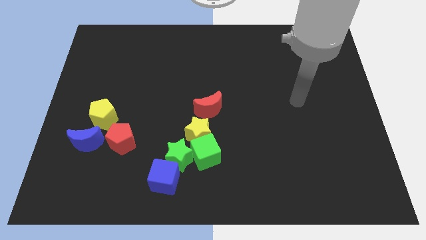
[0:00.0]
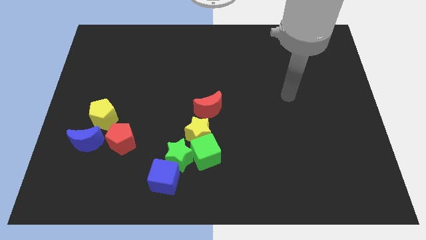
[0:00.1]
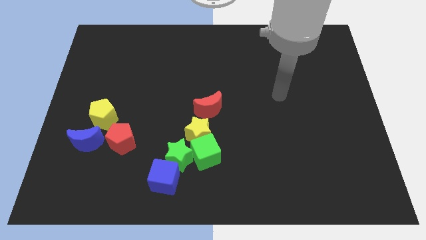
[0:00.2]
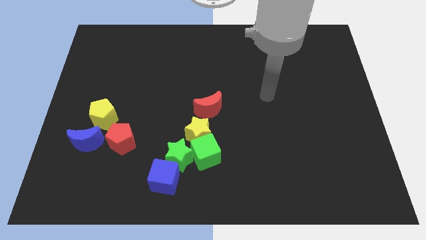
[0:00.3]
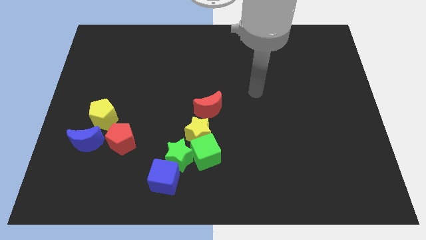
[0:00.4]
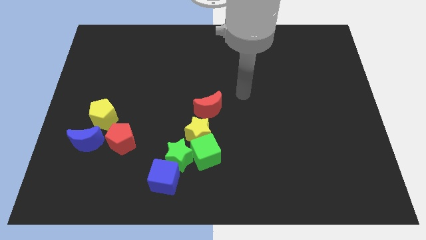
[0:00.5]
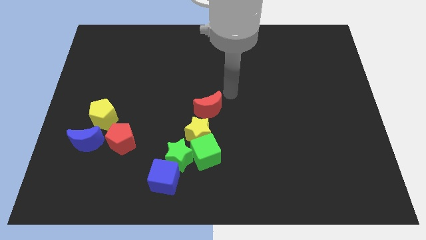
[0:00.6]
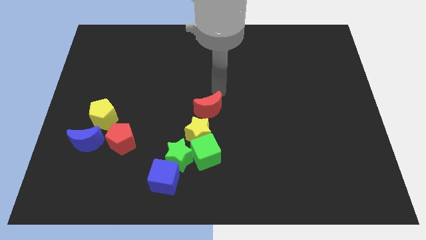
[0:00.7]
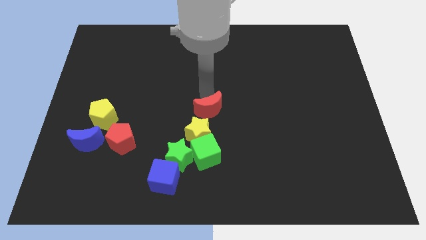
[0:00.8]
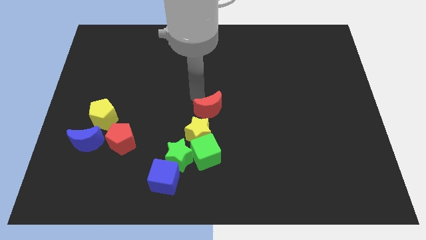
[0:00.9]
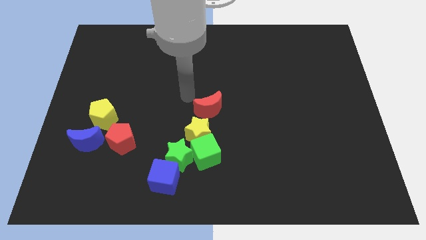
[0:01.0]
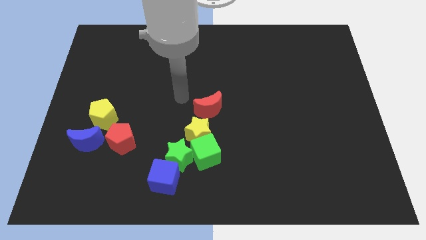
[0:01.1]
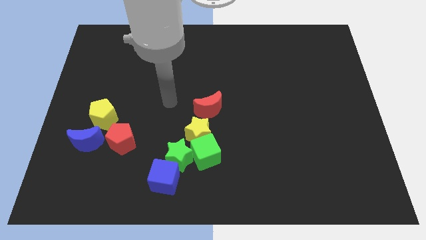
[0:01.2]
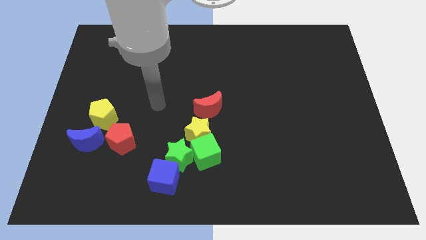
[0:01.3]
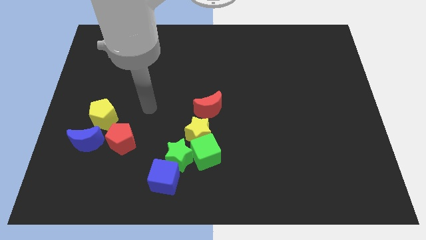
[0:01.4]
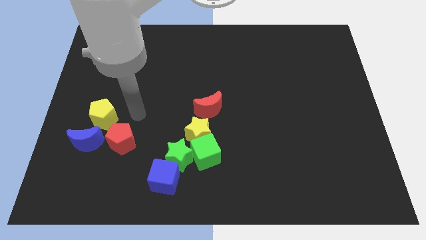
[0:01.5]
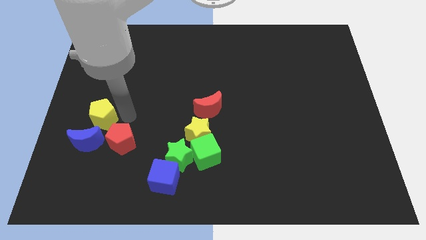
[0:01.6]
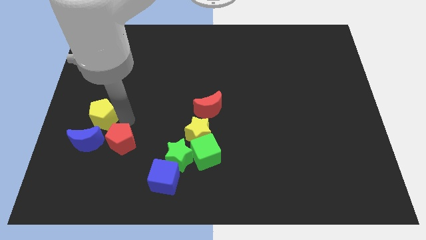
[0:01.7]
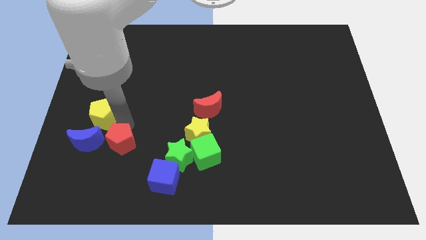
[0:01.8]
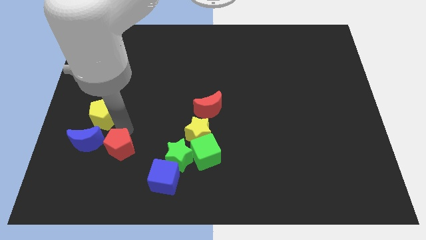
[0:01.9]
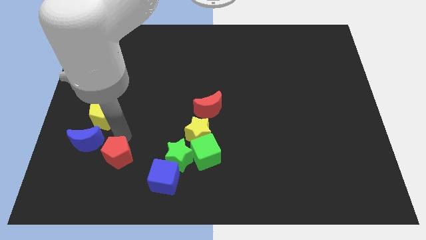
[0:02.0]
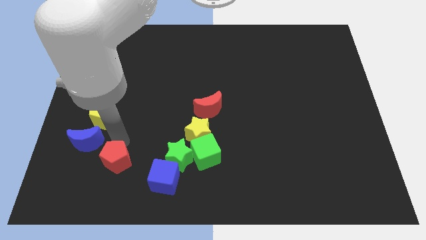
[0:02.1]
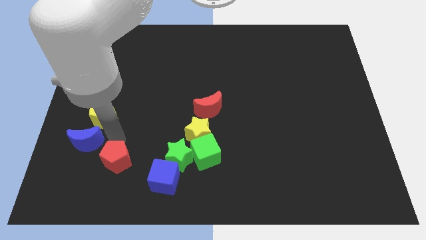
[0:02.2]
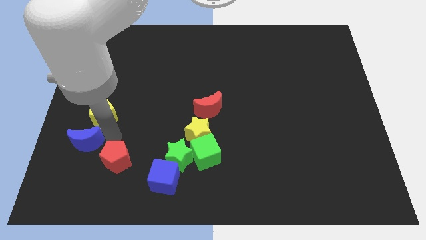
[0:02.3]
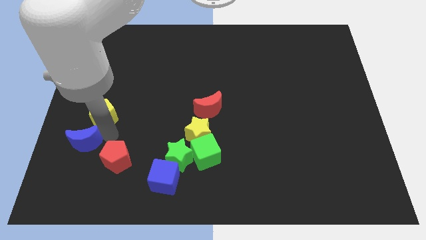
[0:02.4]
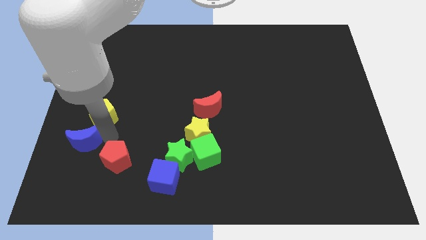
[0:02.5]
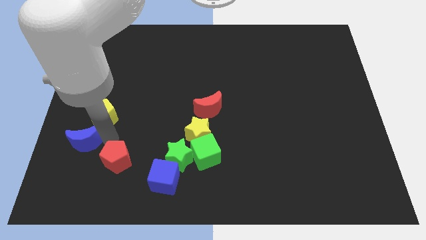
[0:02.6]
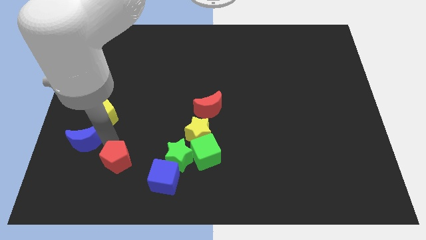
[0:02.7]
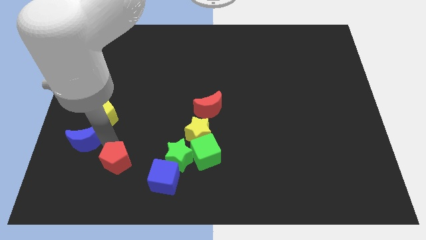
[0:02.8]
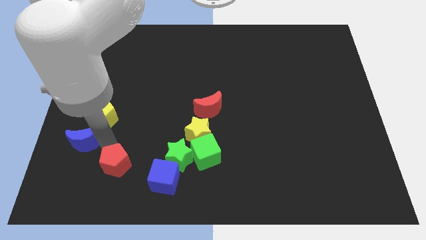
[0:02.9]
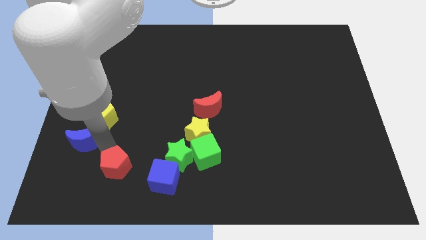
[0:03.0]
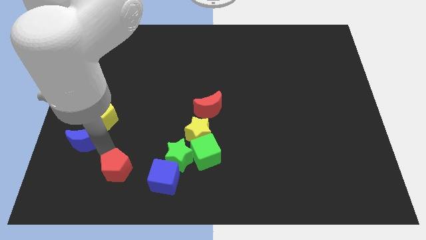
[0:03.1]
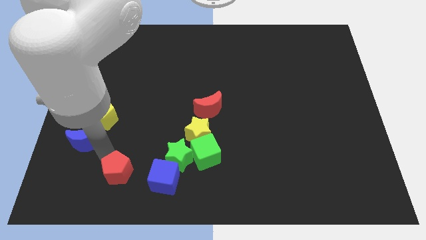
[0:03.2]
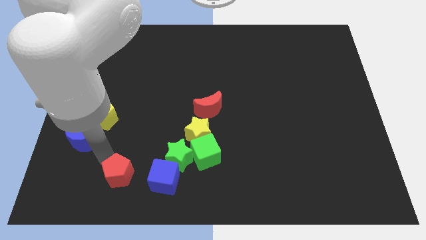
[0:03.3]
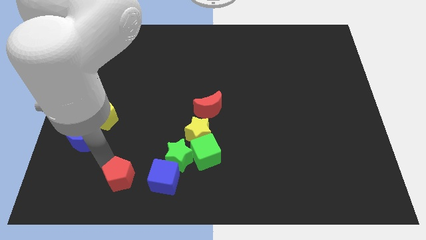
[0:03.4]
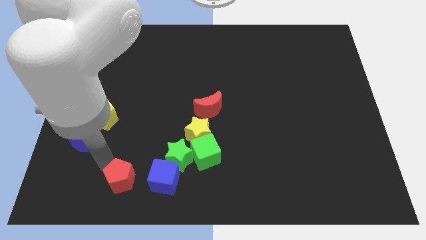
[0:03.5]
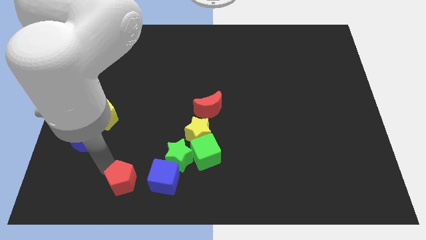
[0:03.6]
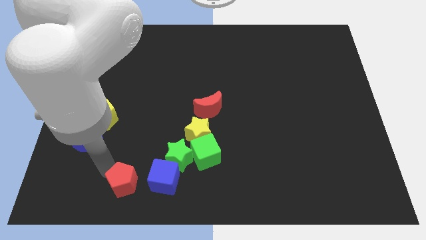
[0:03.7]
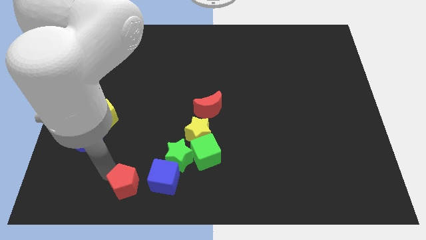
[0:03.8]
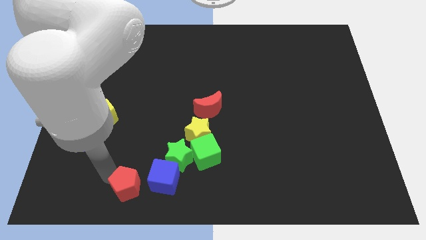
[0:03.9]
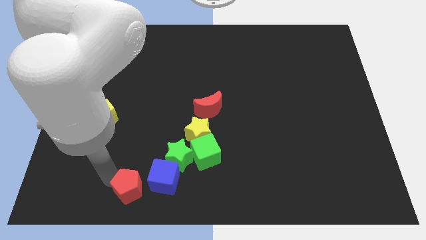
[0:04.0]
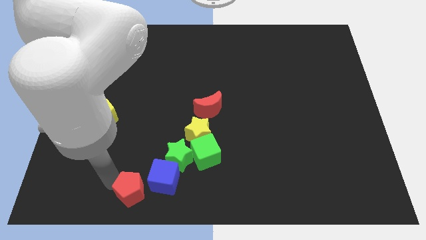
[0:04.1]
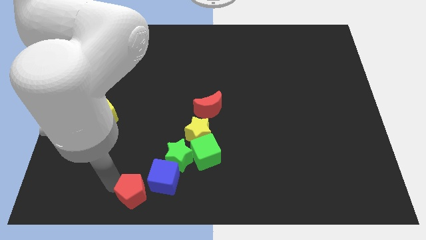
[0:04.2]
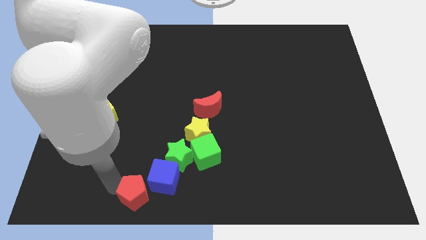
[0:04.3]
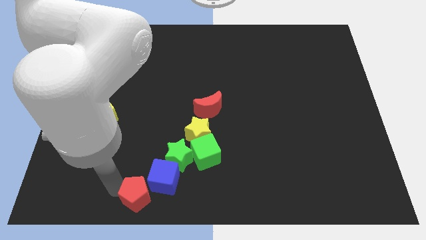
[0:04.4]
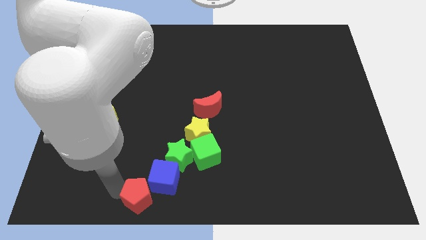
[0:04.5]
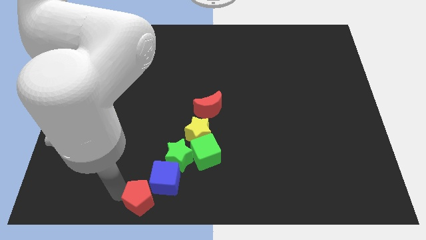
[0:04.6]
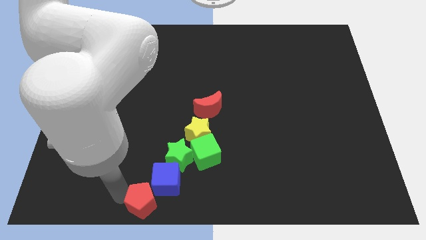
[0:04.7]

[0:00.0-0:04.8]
move the red pentagon to the bottom

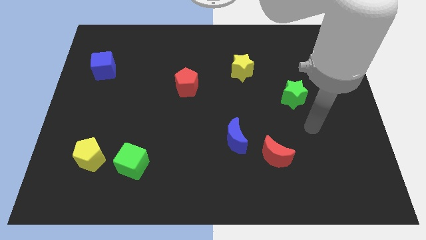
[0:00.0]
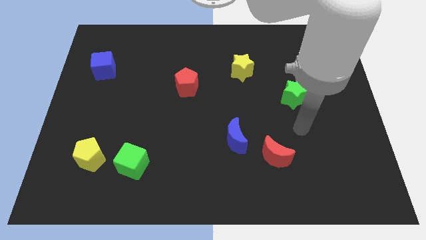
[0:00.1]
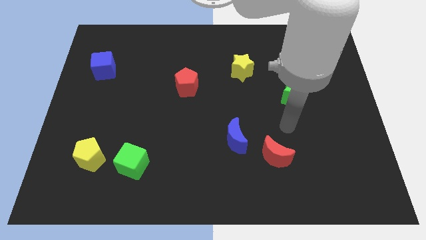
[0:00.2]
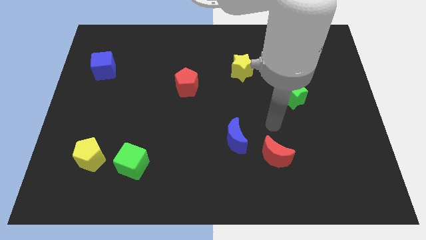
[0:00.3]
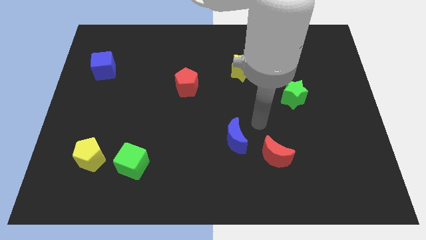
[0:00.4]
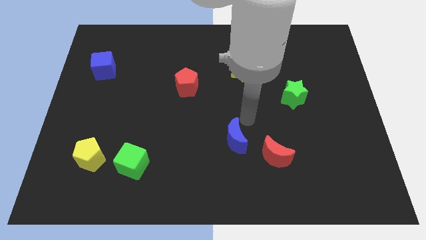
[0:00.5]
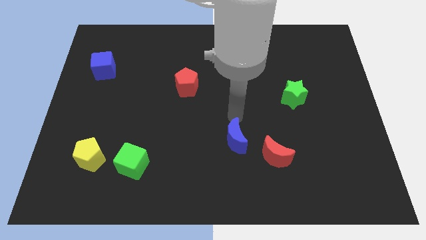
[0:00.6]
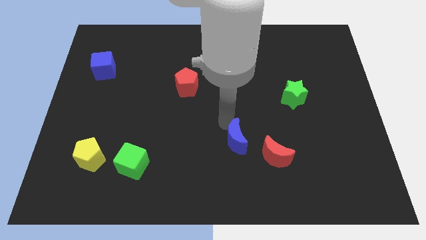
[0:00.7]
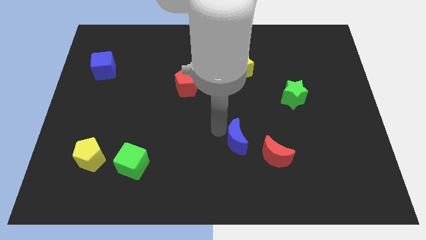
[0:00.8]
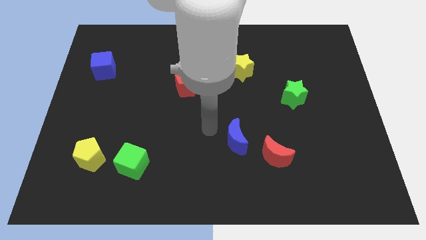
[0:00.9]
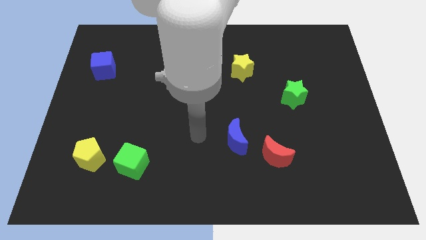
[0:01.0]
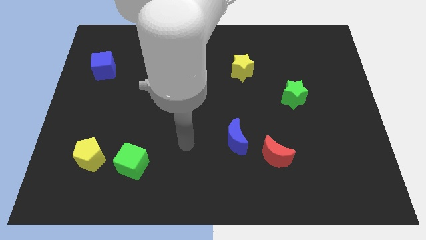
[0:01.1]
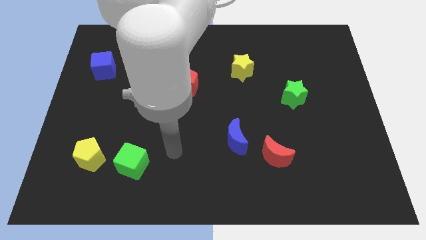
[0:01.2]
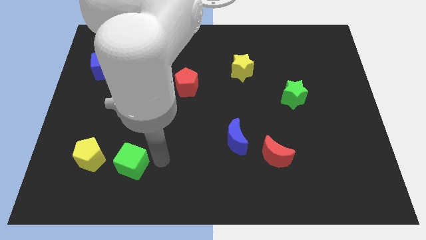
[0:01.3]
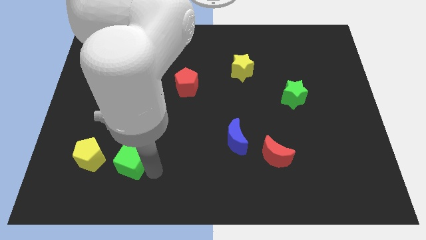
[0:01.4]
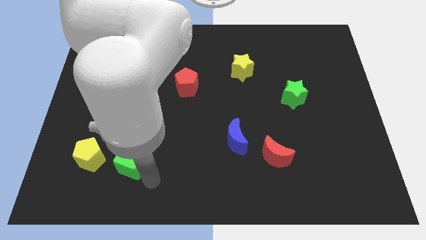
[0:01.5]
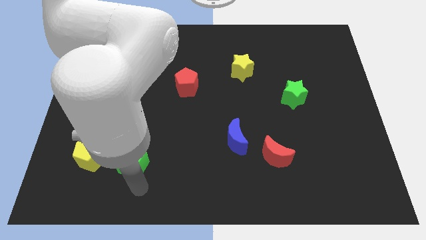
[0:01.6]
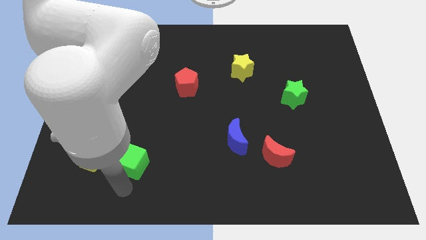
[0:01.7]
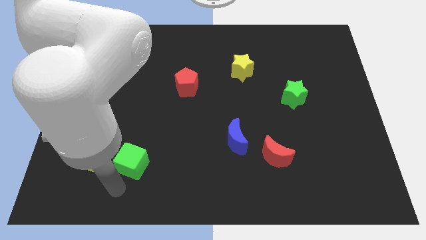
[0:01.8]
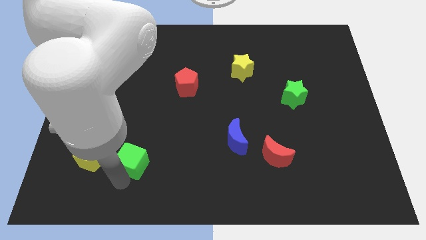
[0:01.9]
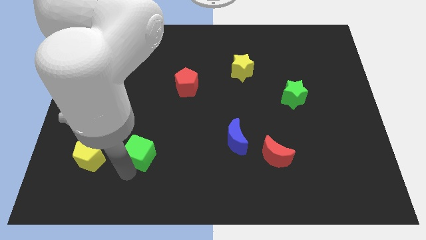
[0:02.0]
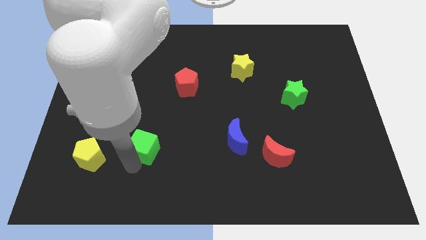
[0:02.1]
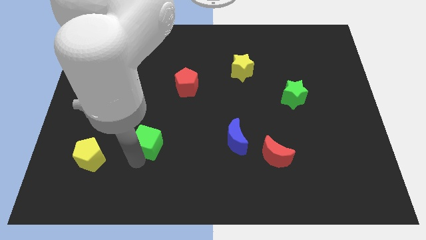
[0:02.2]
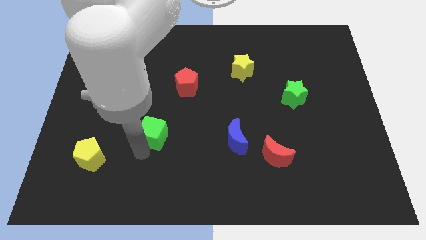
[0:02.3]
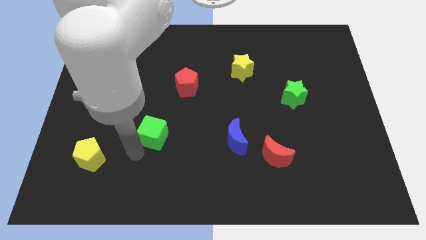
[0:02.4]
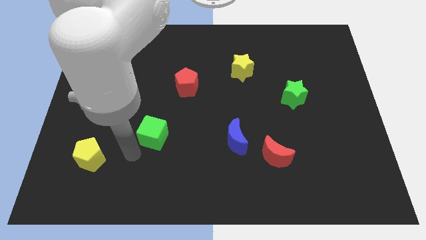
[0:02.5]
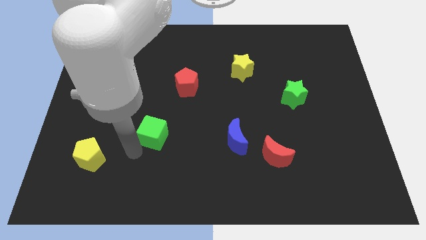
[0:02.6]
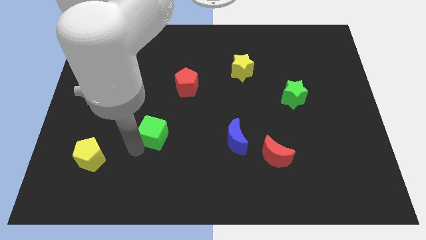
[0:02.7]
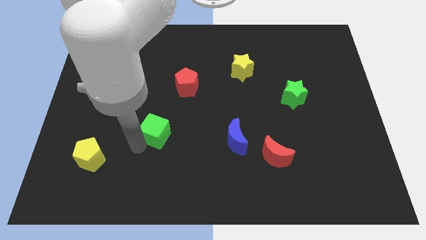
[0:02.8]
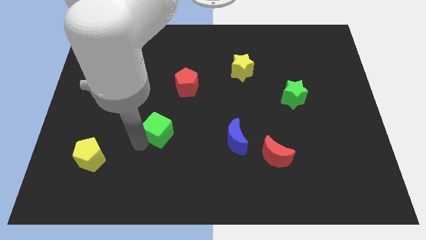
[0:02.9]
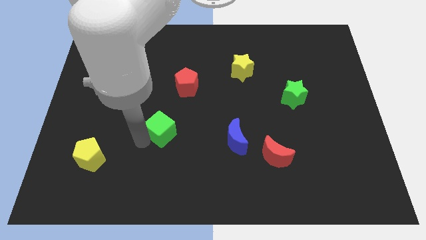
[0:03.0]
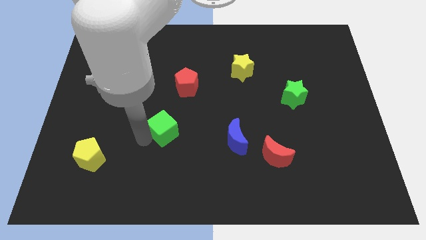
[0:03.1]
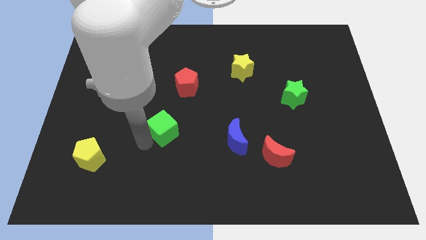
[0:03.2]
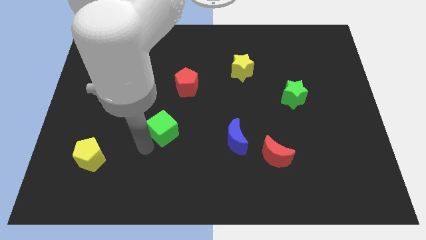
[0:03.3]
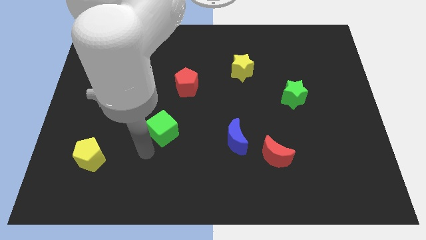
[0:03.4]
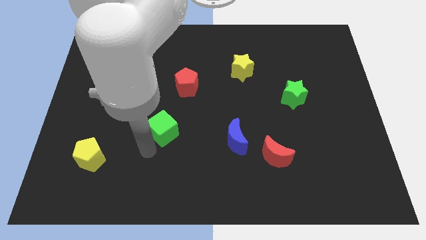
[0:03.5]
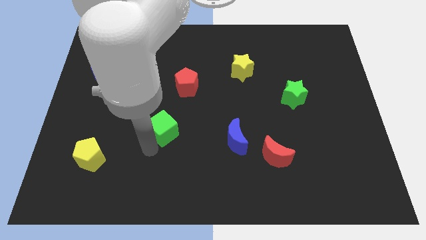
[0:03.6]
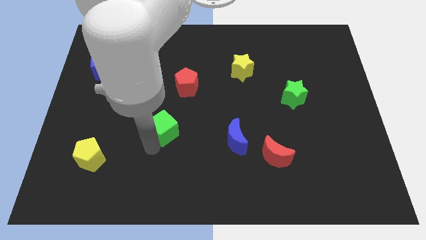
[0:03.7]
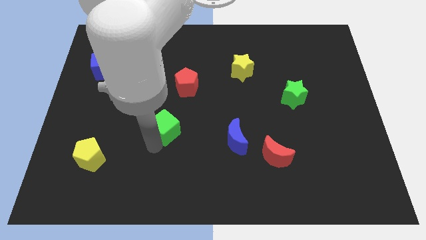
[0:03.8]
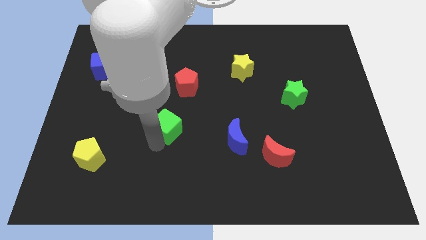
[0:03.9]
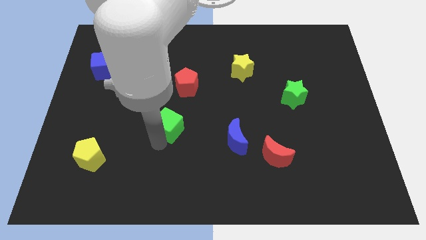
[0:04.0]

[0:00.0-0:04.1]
put the green cube to the middle of the board
